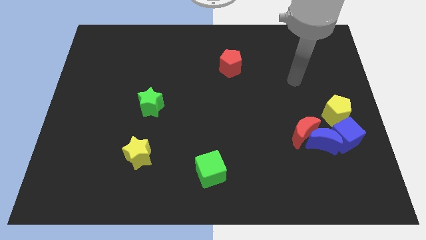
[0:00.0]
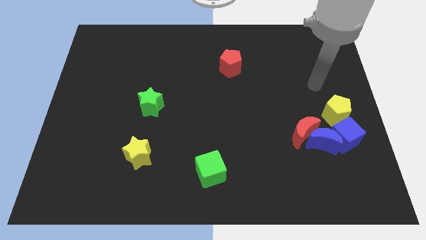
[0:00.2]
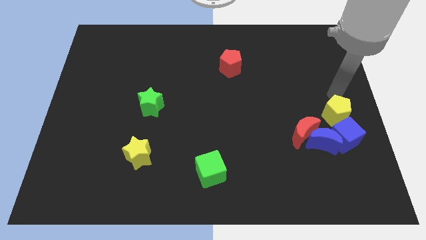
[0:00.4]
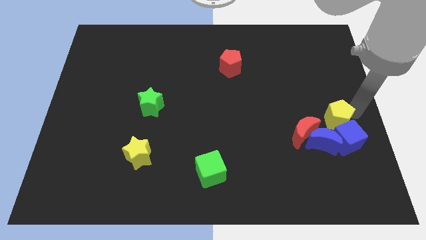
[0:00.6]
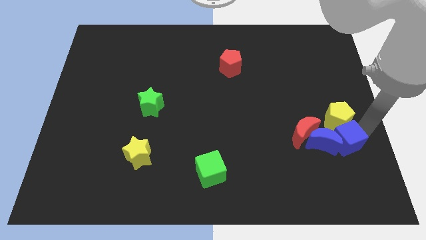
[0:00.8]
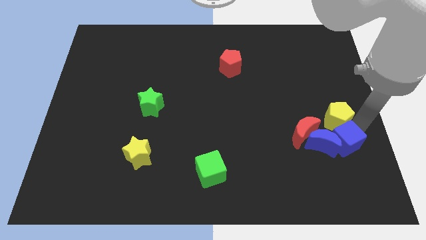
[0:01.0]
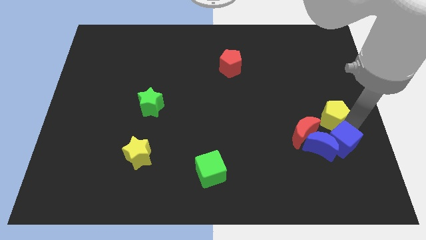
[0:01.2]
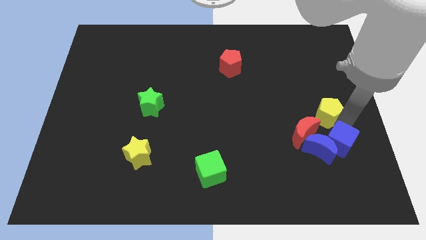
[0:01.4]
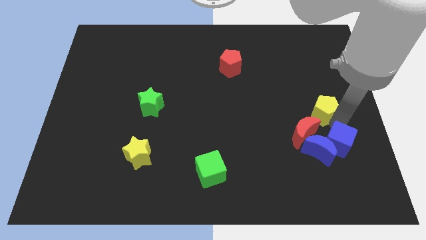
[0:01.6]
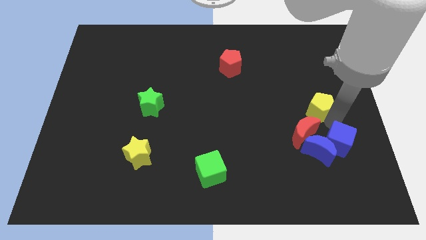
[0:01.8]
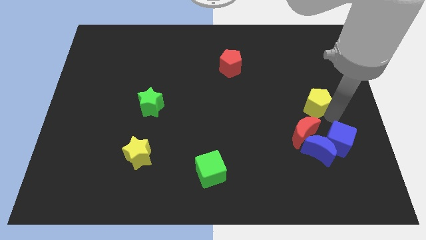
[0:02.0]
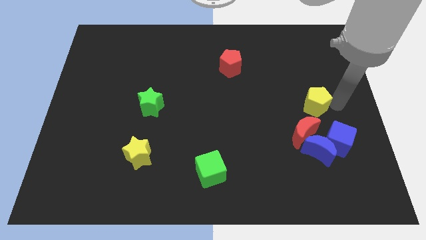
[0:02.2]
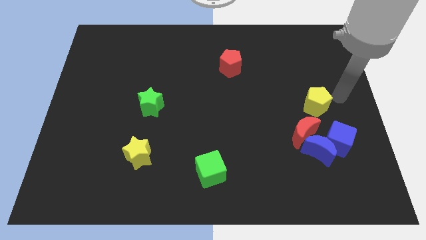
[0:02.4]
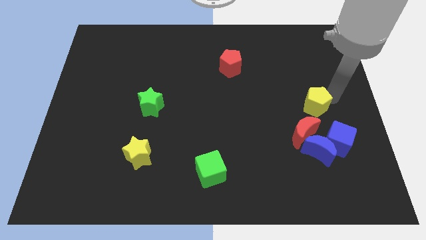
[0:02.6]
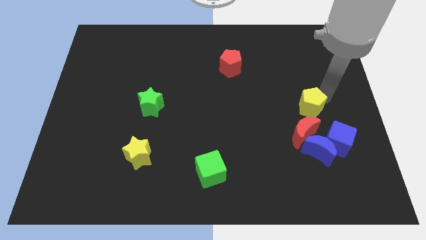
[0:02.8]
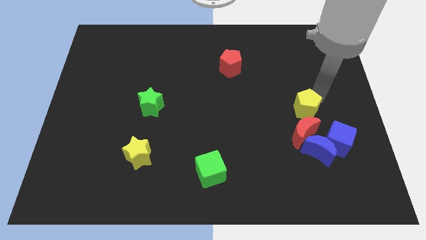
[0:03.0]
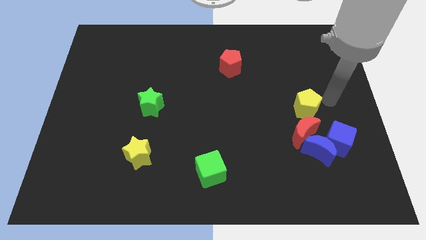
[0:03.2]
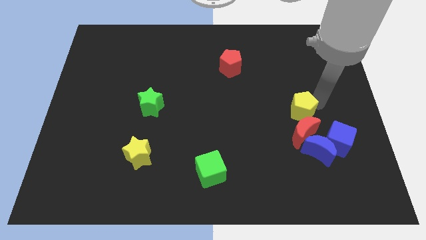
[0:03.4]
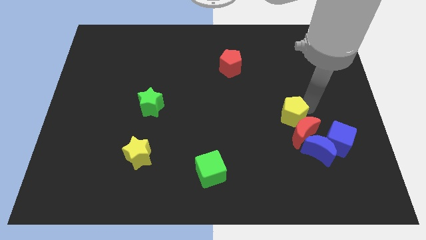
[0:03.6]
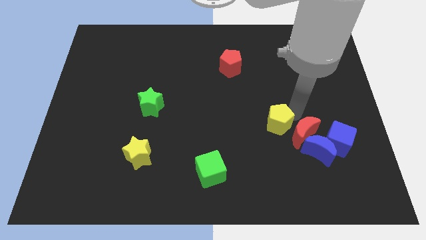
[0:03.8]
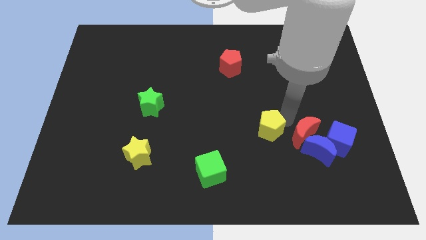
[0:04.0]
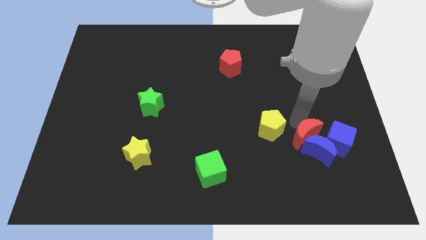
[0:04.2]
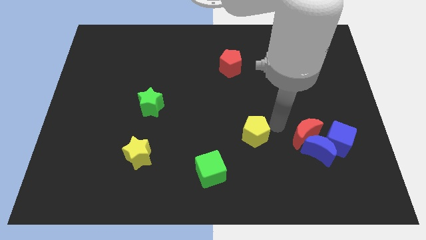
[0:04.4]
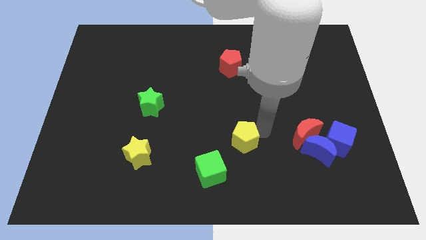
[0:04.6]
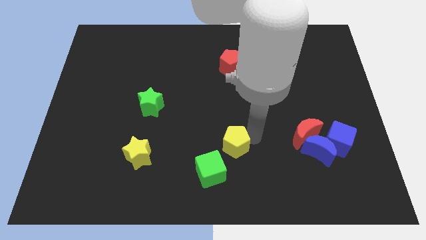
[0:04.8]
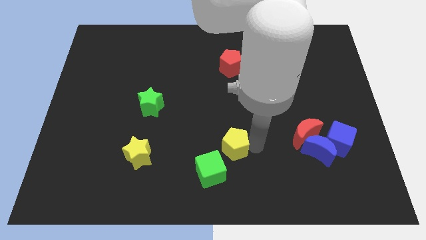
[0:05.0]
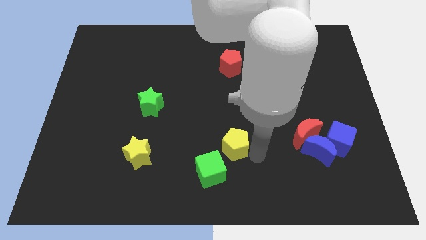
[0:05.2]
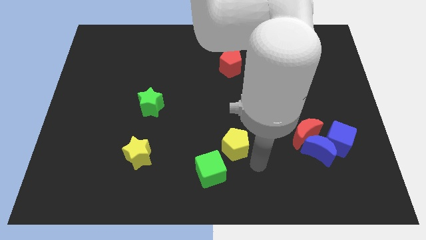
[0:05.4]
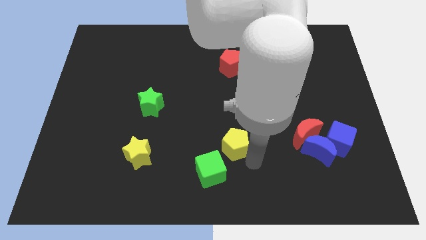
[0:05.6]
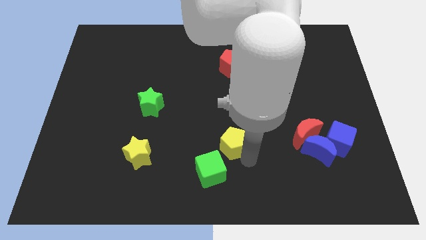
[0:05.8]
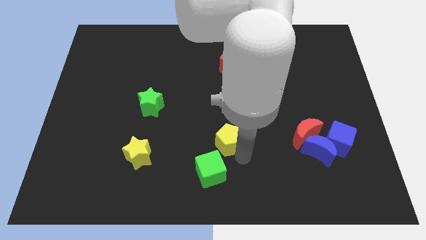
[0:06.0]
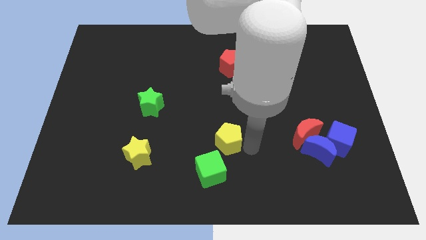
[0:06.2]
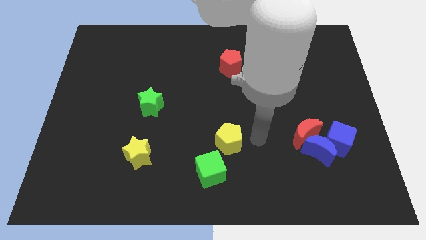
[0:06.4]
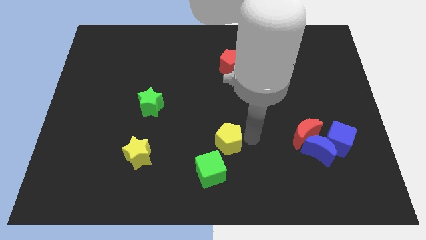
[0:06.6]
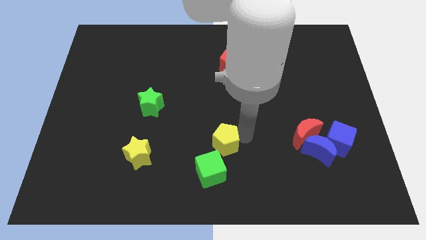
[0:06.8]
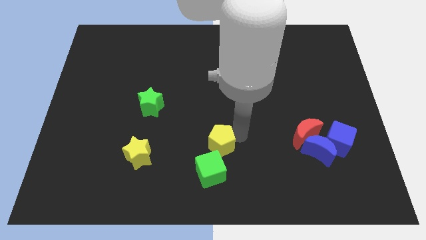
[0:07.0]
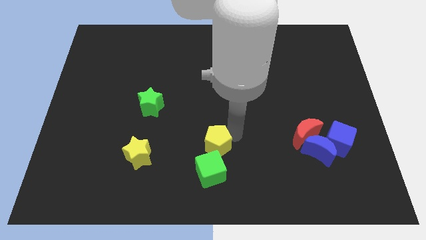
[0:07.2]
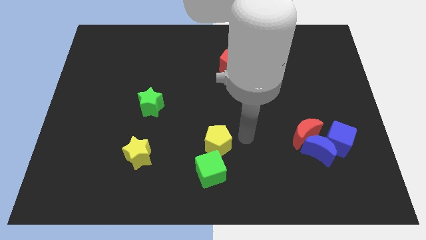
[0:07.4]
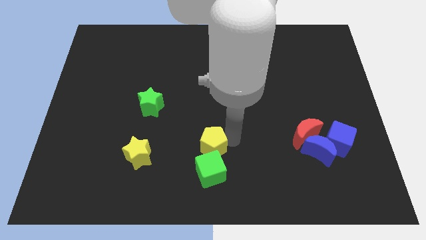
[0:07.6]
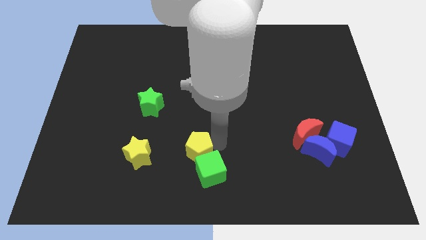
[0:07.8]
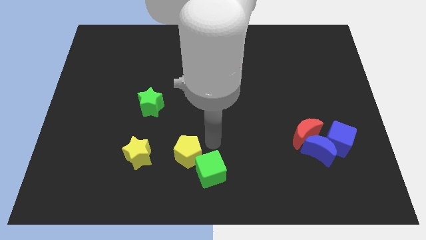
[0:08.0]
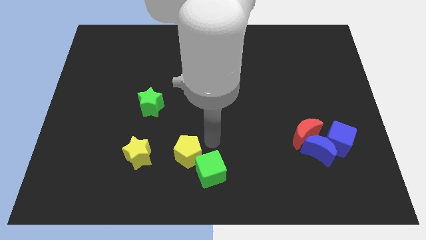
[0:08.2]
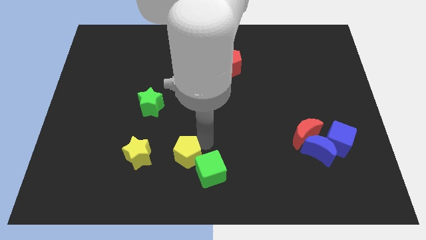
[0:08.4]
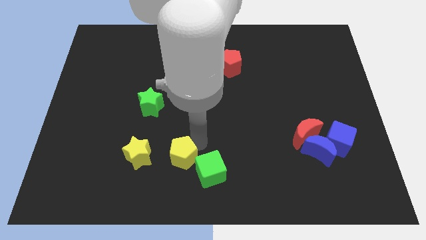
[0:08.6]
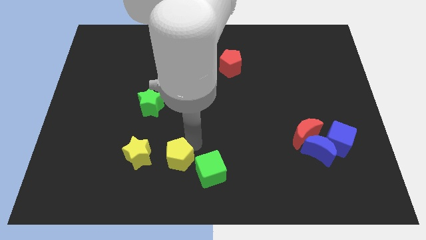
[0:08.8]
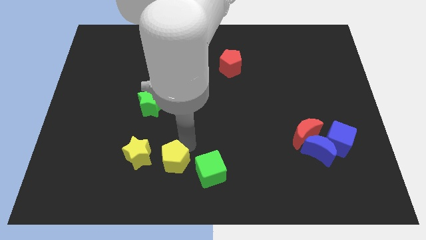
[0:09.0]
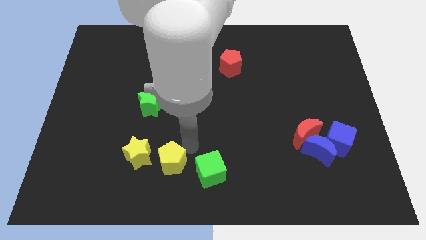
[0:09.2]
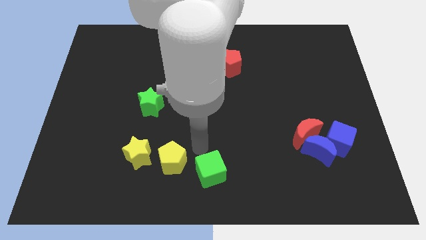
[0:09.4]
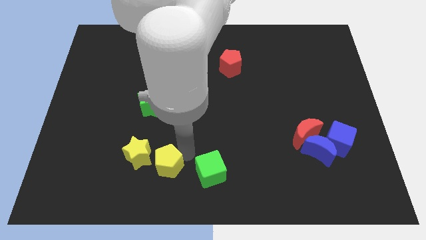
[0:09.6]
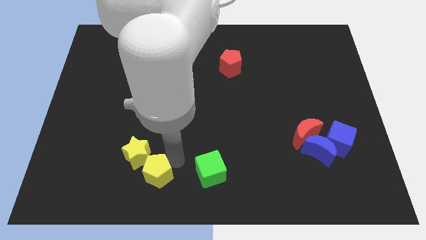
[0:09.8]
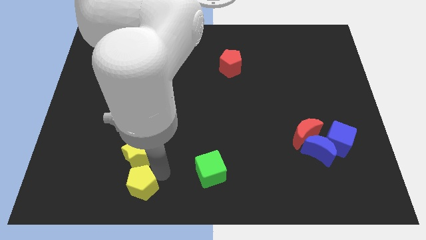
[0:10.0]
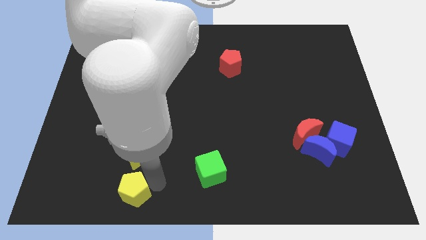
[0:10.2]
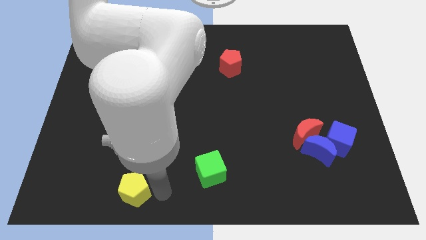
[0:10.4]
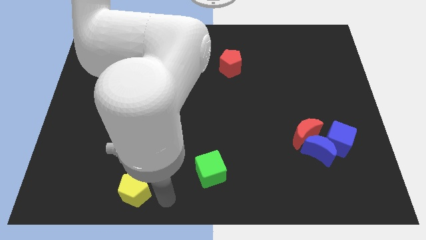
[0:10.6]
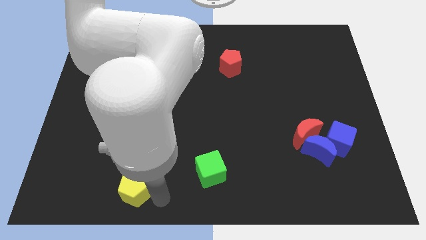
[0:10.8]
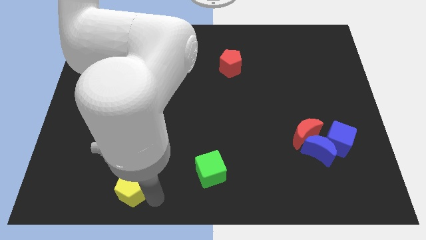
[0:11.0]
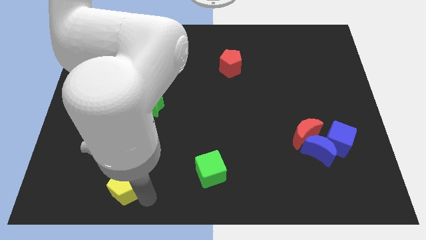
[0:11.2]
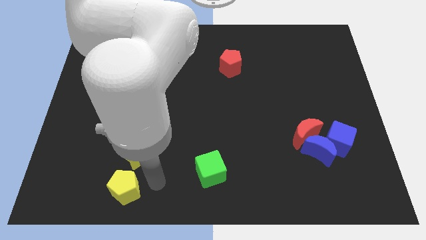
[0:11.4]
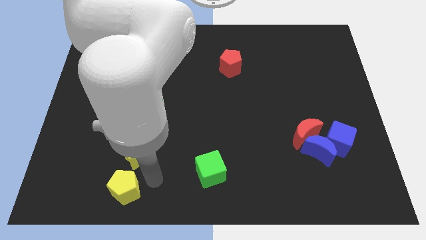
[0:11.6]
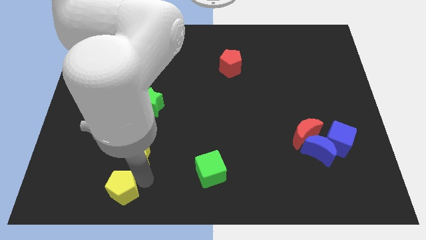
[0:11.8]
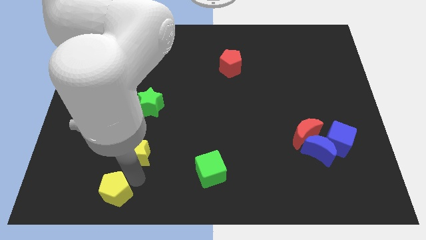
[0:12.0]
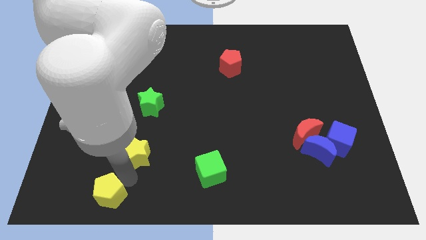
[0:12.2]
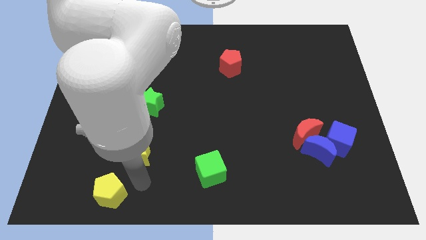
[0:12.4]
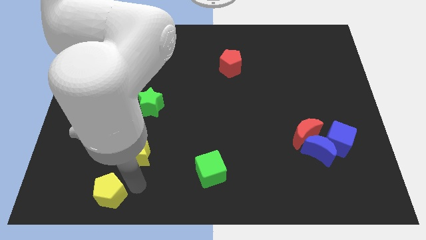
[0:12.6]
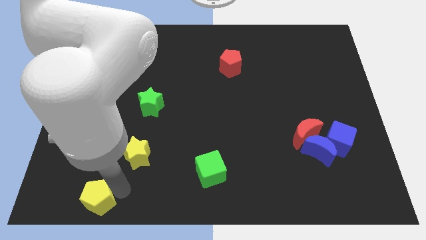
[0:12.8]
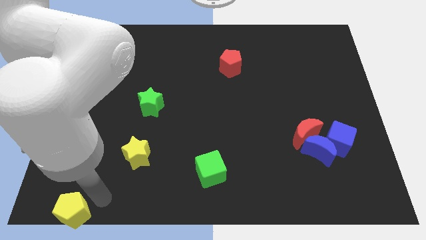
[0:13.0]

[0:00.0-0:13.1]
push the yellow pentagon to the lower left corner
